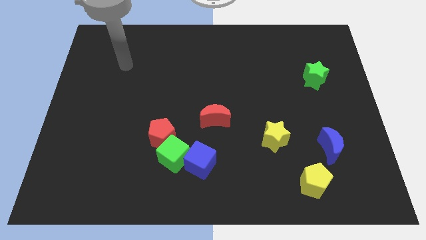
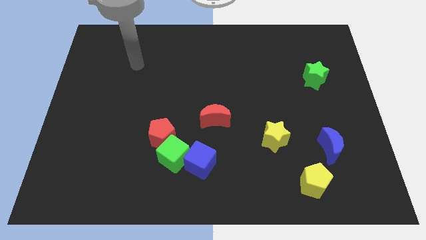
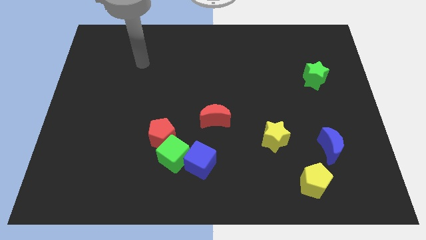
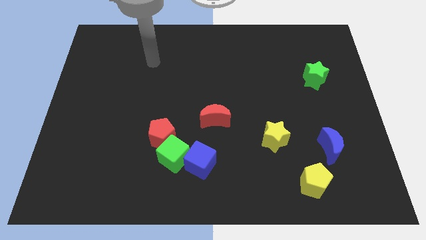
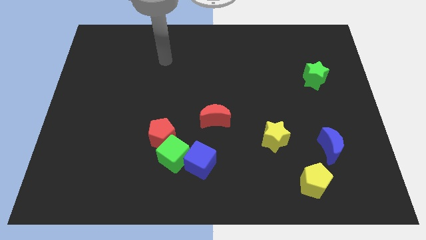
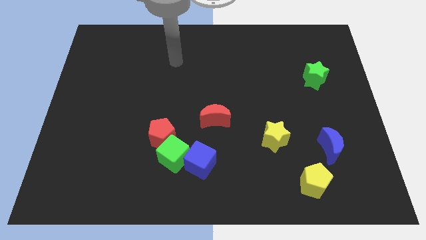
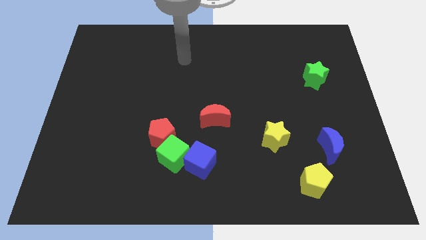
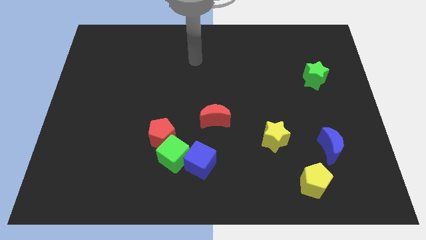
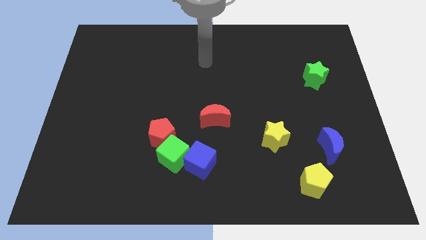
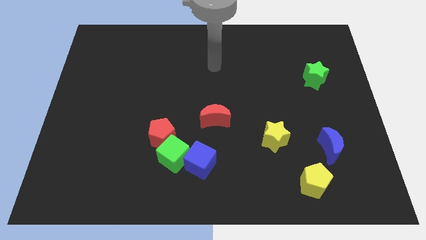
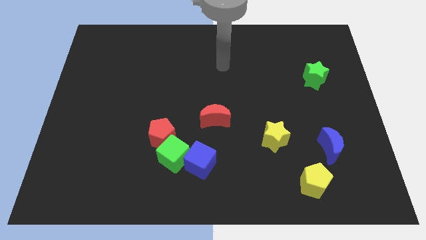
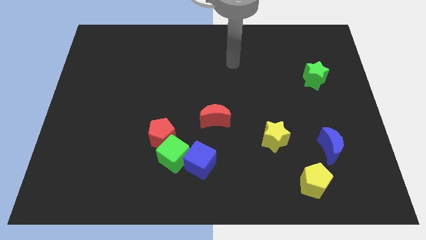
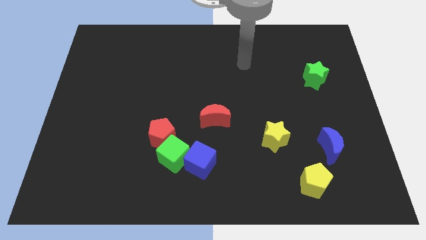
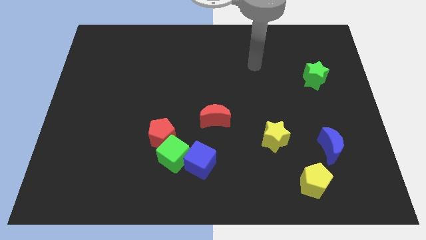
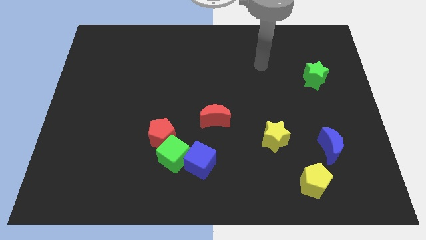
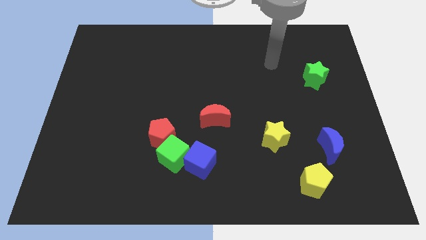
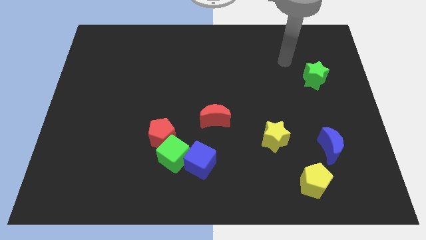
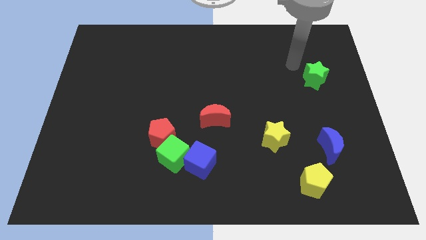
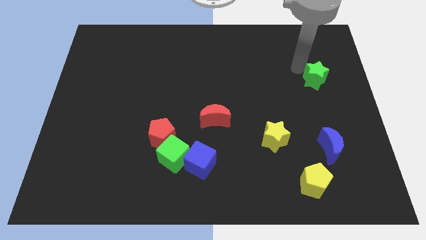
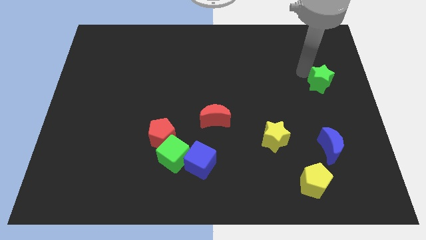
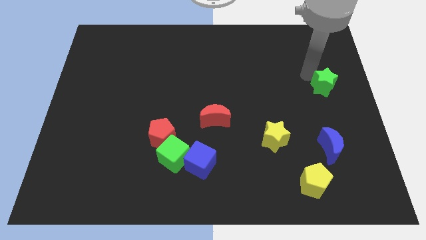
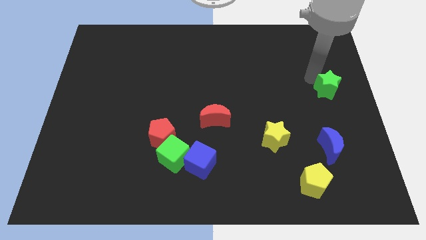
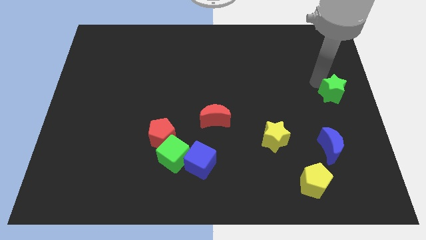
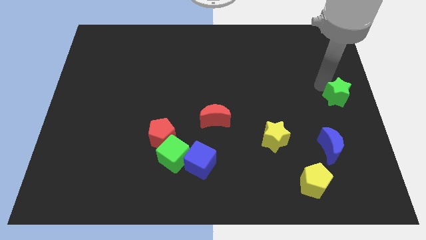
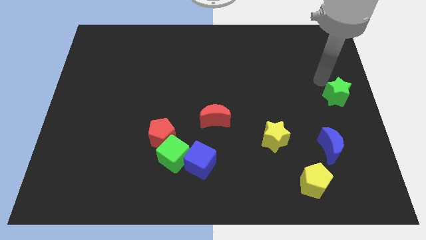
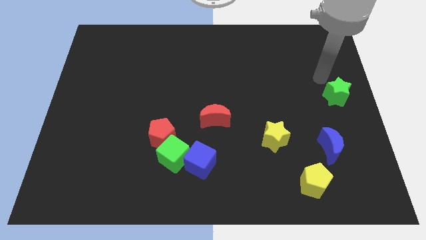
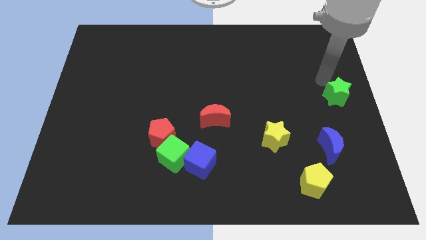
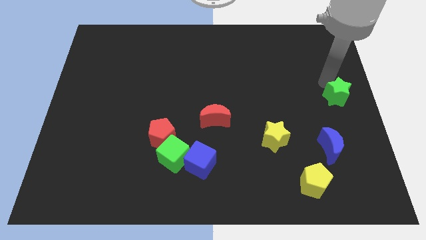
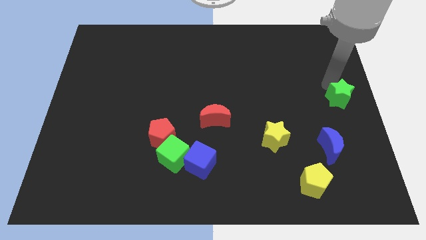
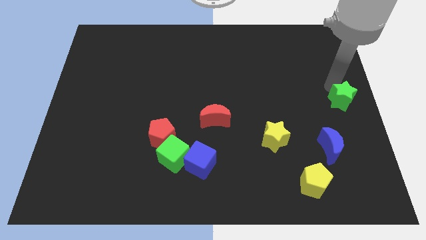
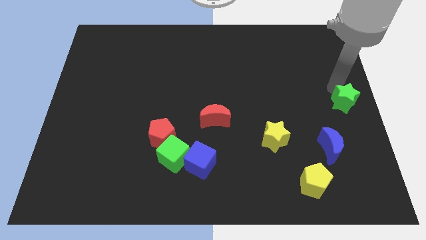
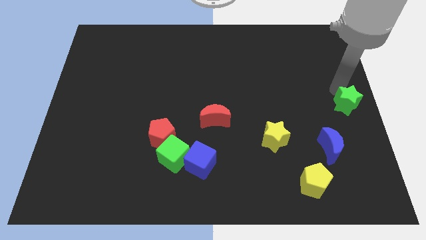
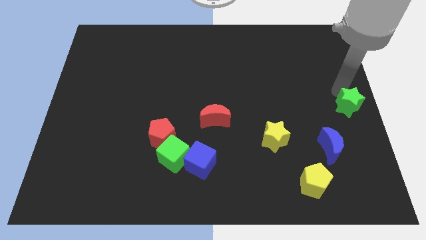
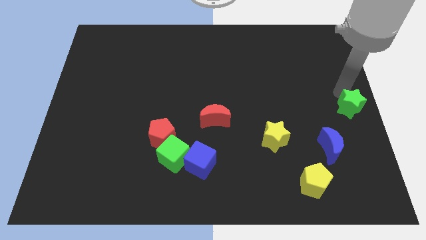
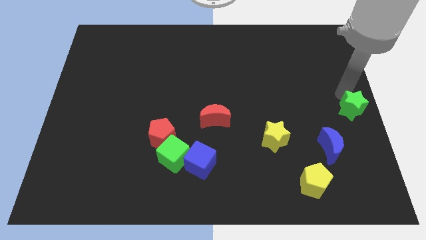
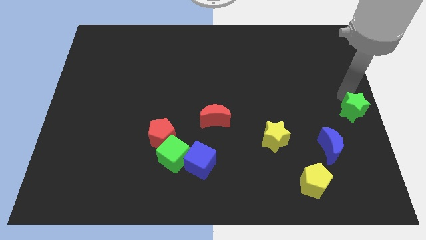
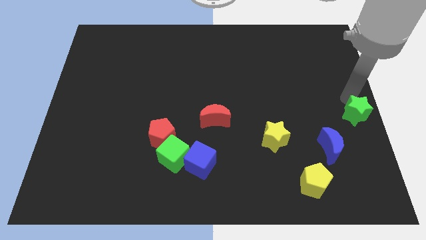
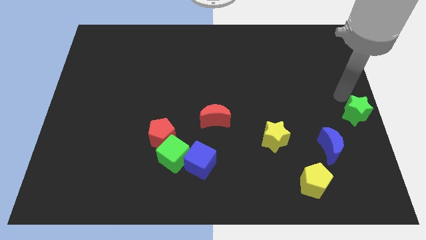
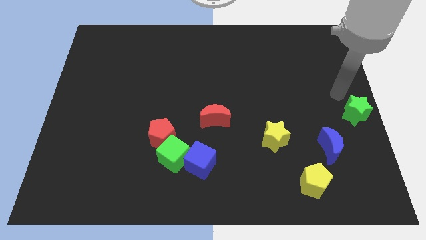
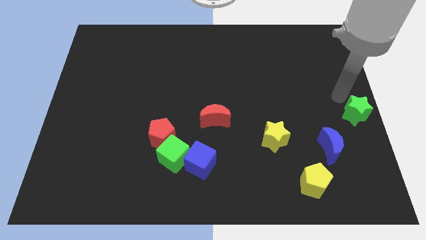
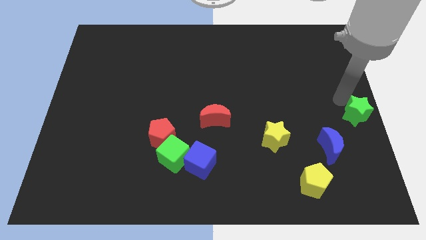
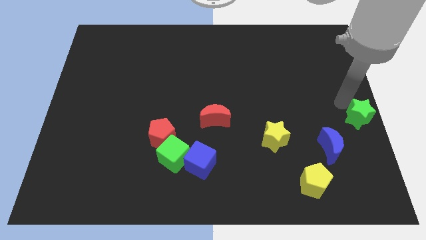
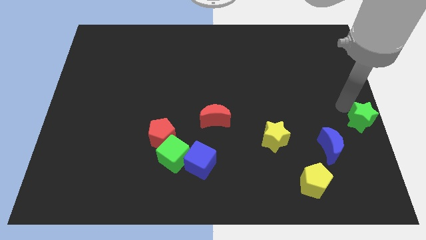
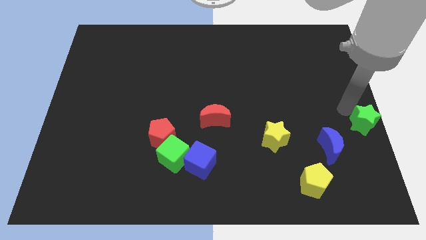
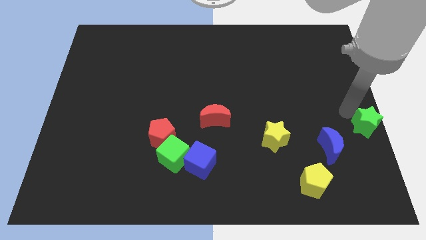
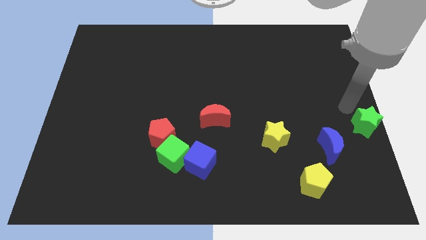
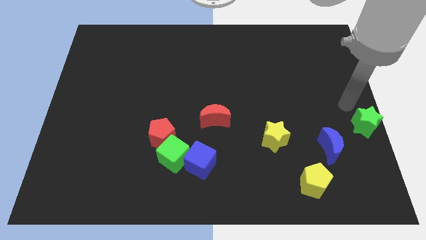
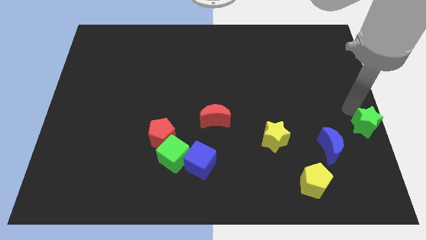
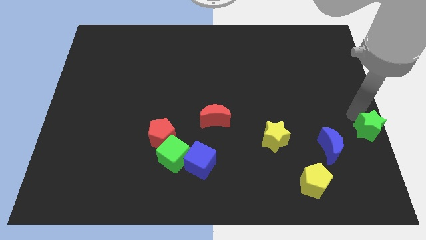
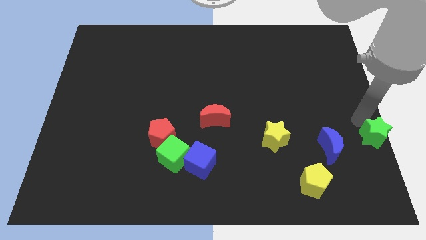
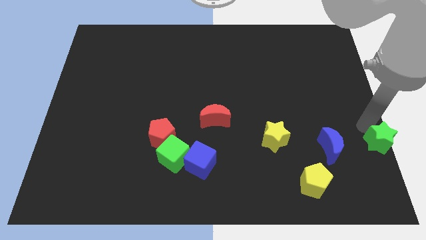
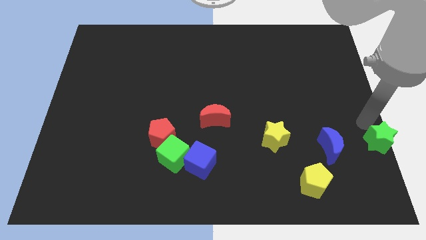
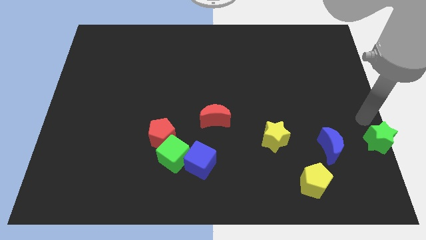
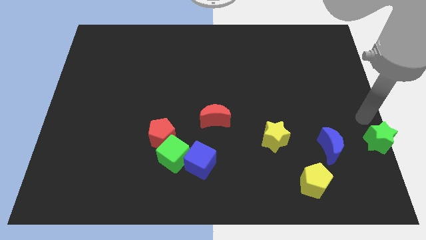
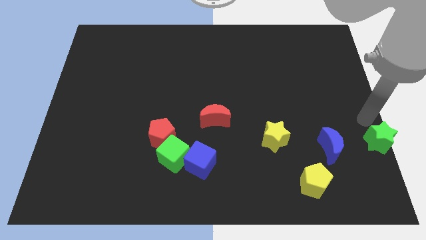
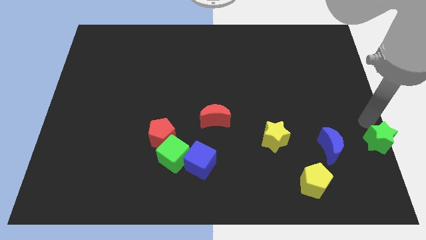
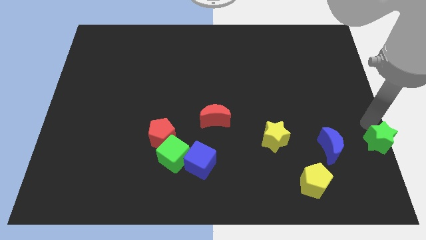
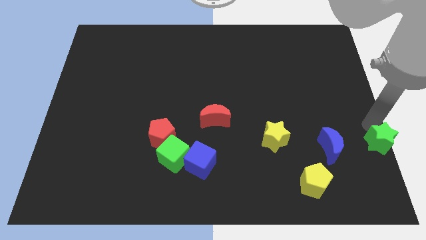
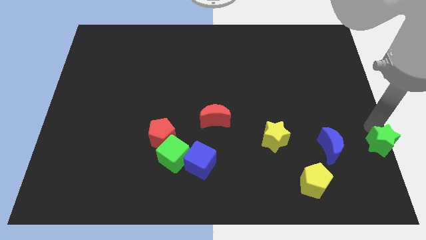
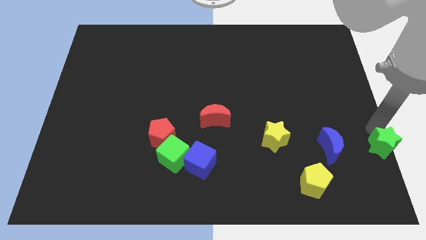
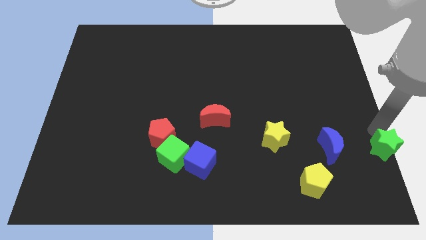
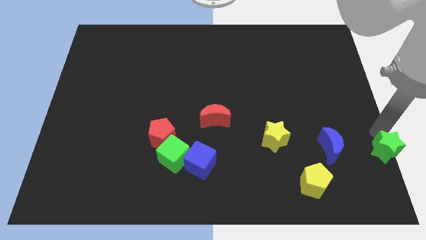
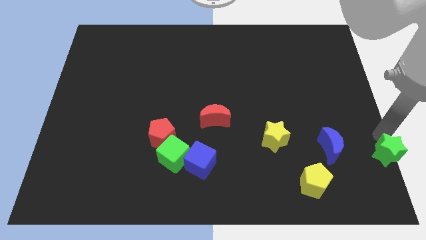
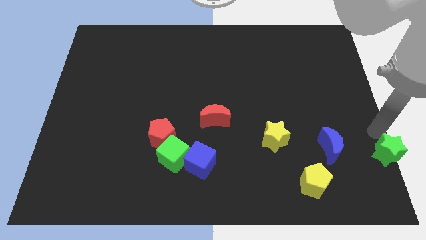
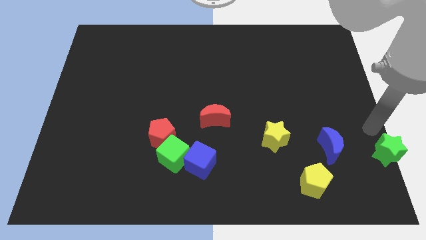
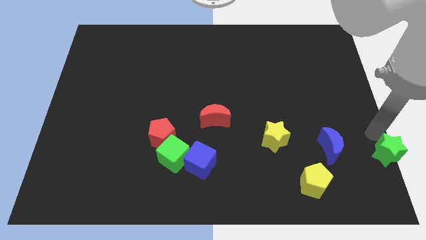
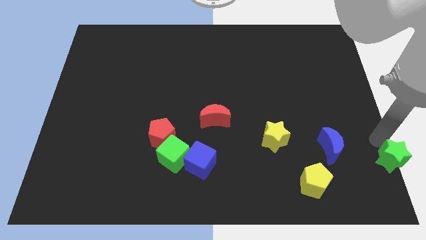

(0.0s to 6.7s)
move the green star to the bottom right of the board
